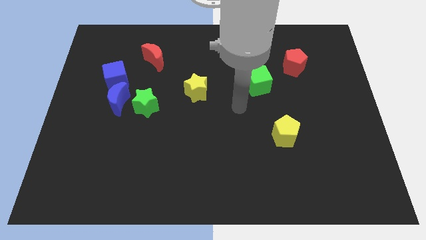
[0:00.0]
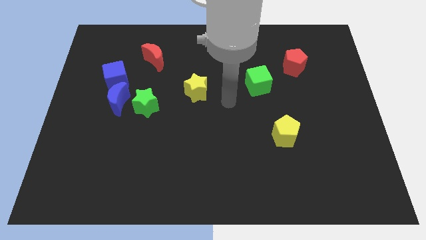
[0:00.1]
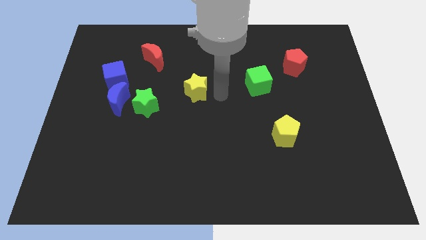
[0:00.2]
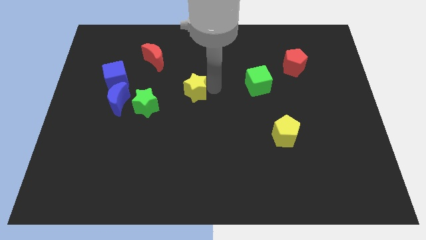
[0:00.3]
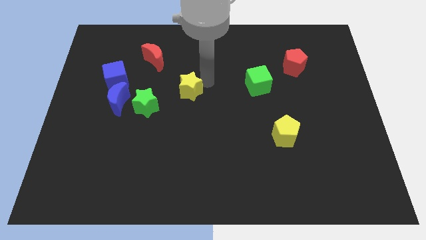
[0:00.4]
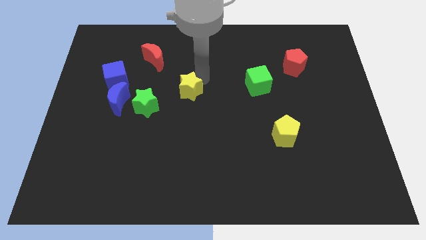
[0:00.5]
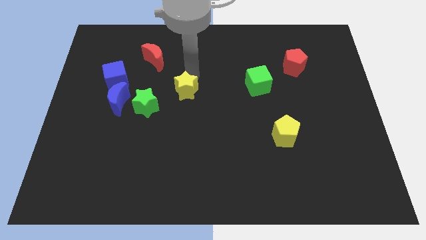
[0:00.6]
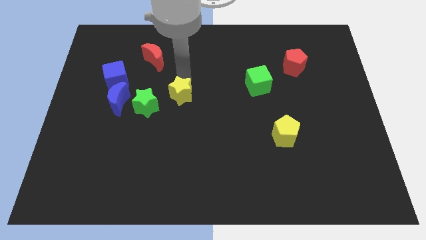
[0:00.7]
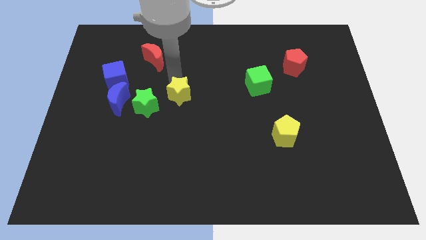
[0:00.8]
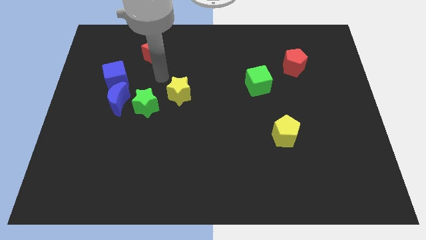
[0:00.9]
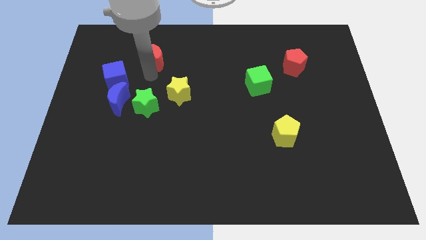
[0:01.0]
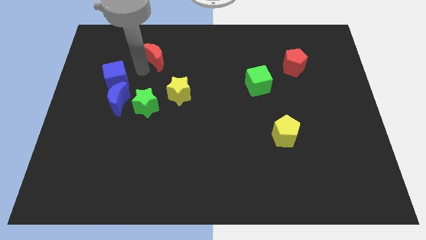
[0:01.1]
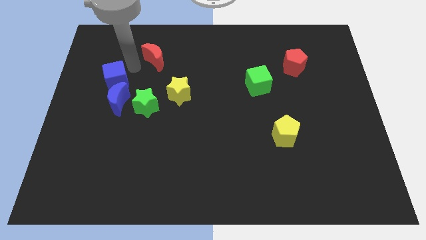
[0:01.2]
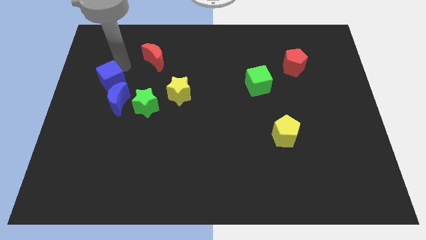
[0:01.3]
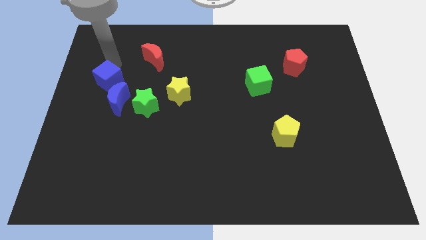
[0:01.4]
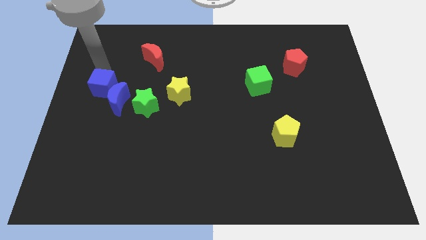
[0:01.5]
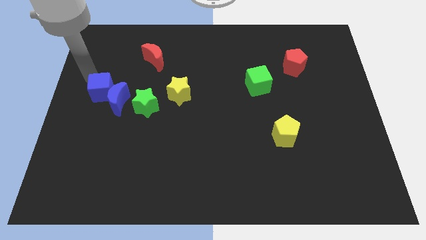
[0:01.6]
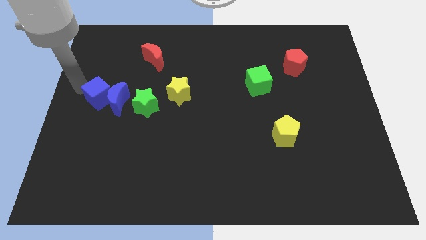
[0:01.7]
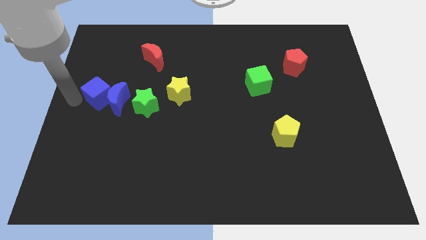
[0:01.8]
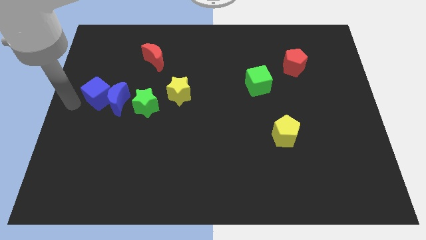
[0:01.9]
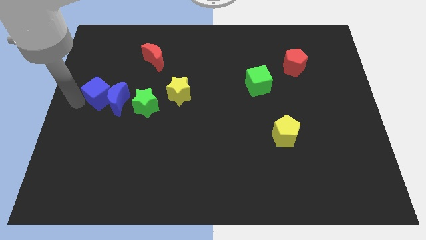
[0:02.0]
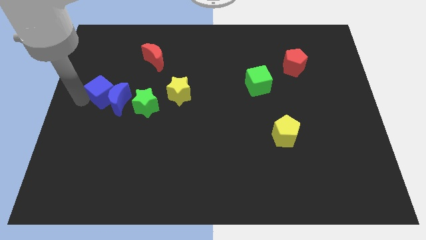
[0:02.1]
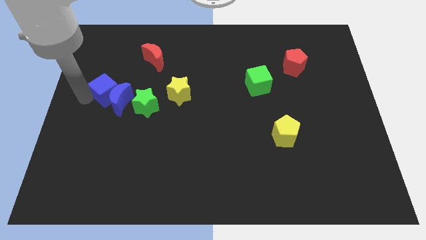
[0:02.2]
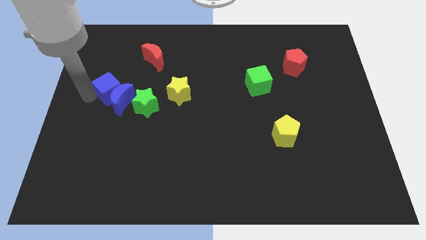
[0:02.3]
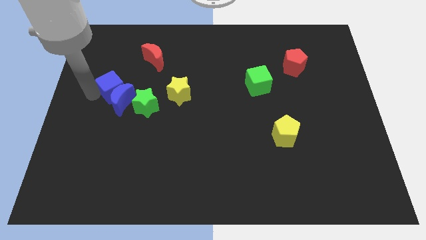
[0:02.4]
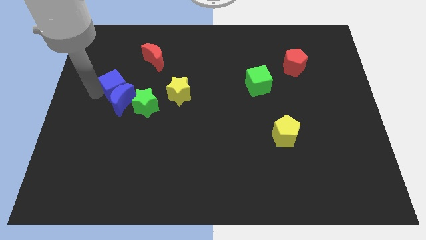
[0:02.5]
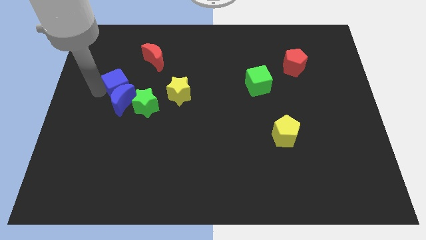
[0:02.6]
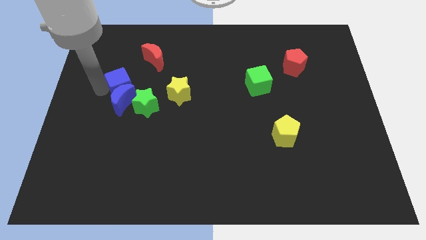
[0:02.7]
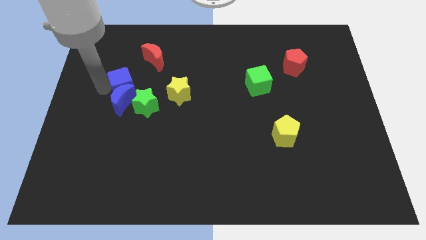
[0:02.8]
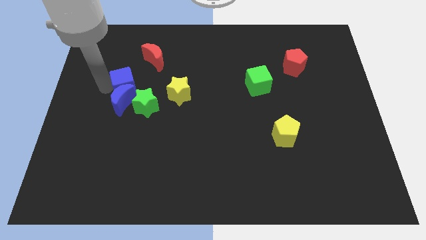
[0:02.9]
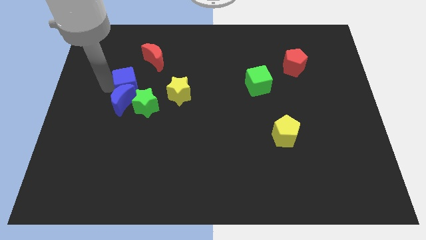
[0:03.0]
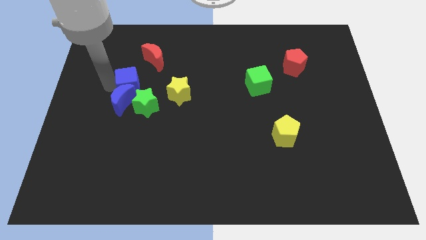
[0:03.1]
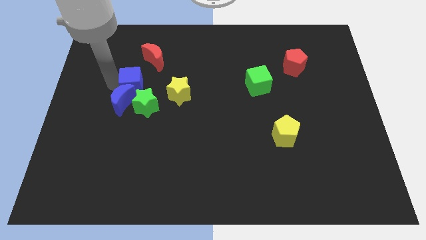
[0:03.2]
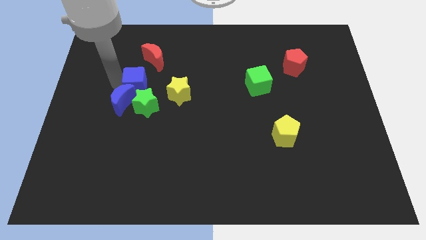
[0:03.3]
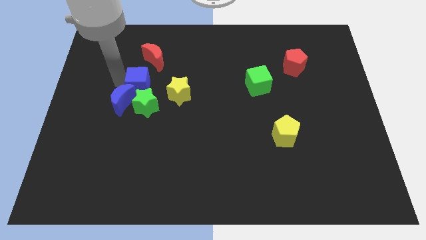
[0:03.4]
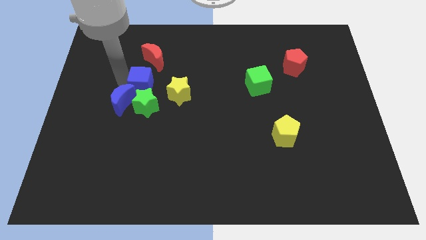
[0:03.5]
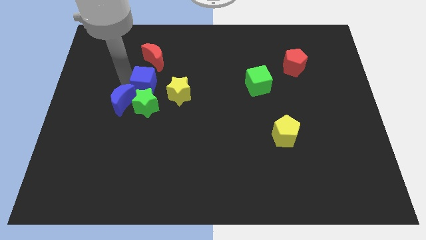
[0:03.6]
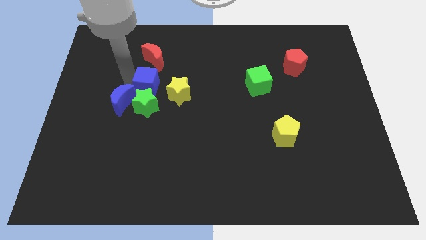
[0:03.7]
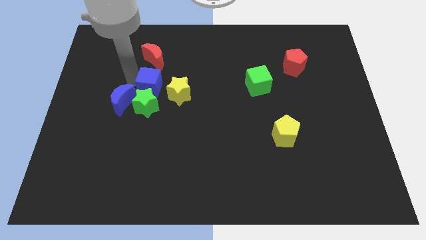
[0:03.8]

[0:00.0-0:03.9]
slide the blue cube a bit downwards and to the right diagonally

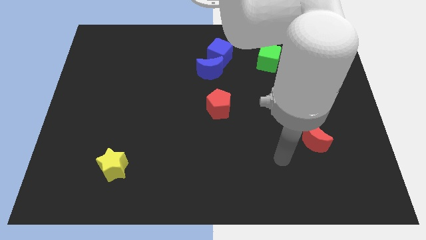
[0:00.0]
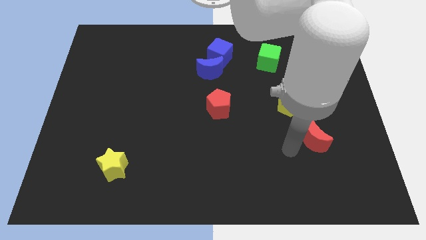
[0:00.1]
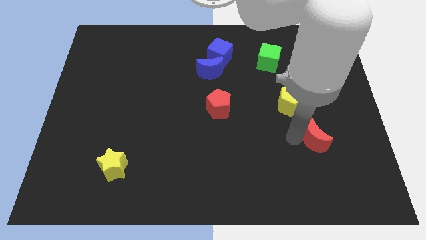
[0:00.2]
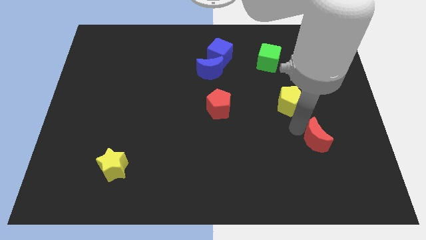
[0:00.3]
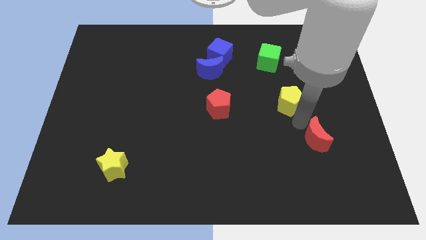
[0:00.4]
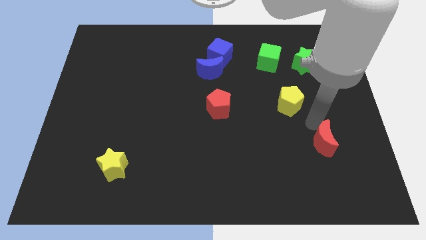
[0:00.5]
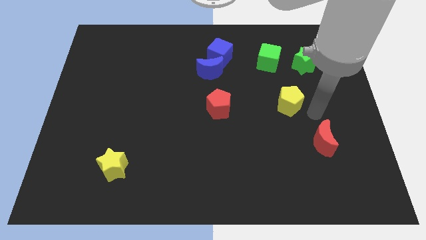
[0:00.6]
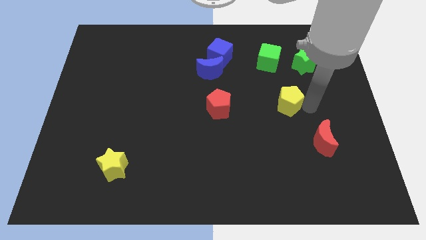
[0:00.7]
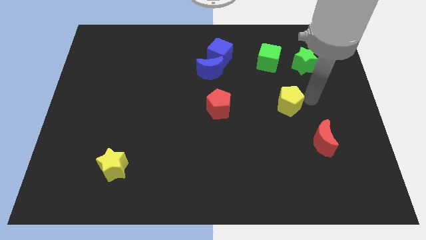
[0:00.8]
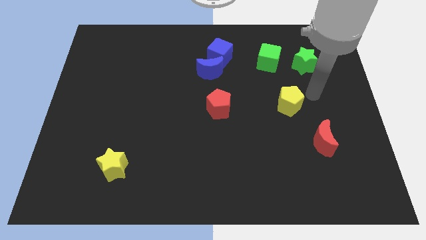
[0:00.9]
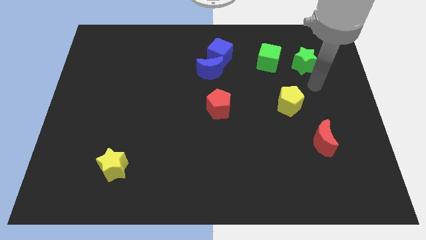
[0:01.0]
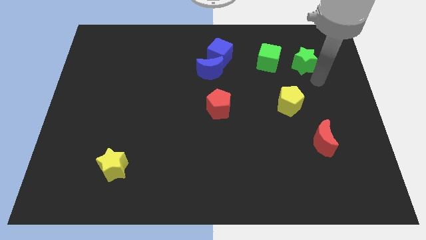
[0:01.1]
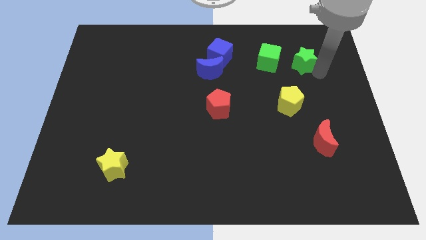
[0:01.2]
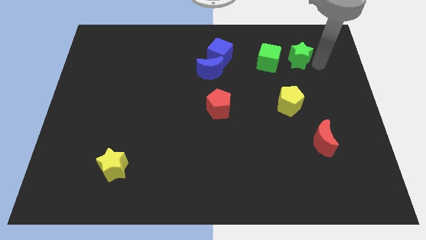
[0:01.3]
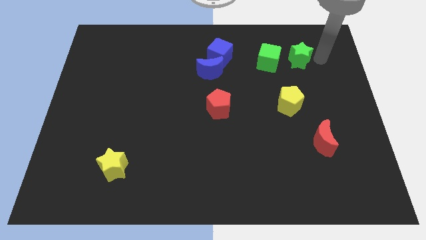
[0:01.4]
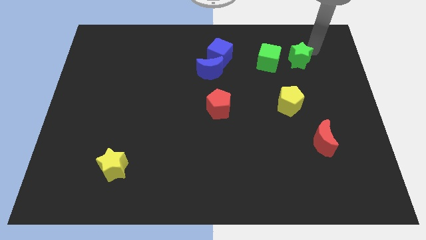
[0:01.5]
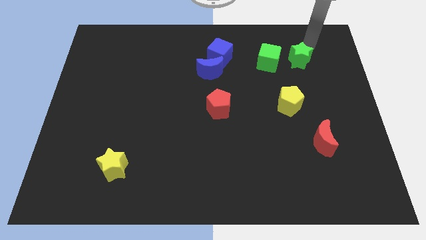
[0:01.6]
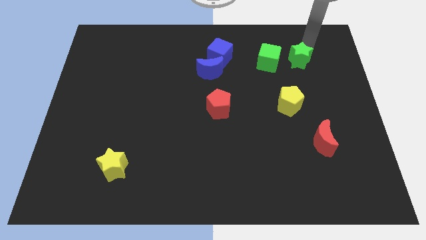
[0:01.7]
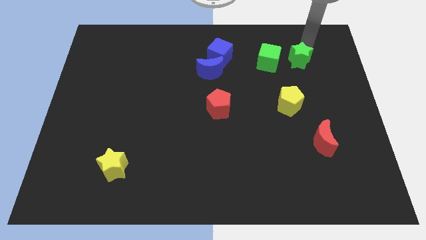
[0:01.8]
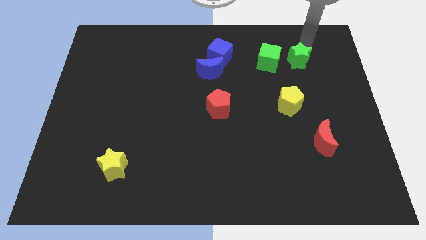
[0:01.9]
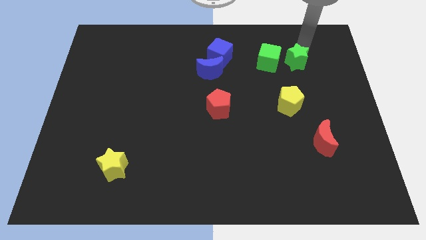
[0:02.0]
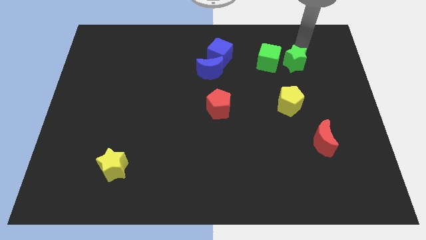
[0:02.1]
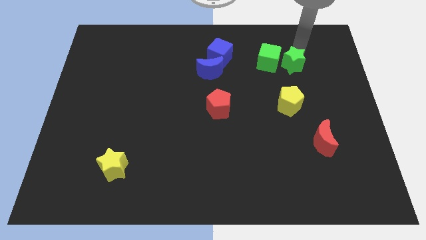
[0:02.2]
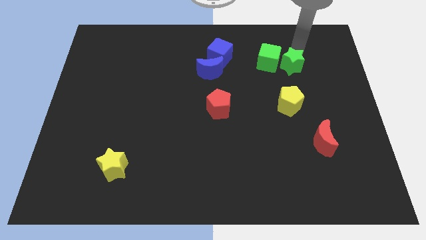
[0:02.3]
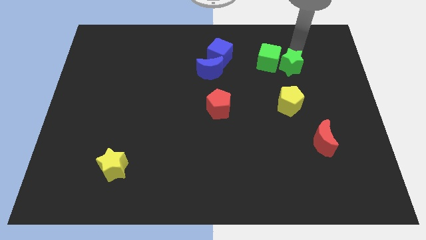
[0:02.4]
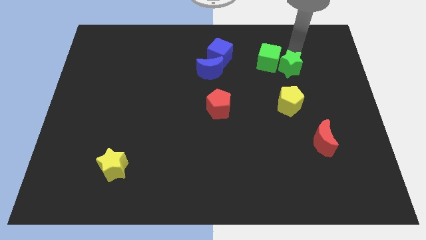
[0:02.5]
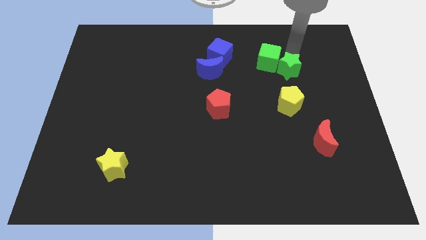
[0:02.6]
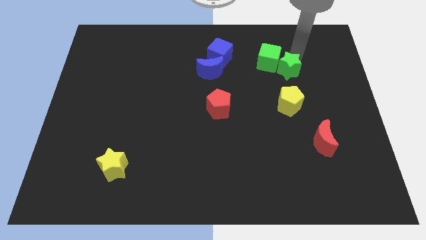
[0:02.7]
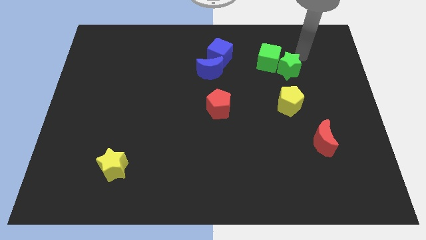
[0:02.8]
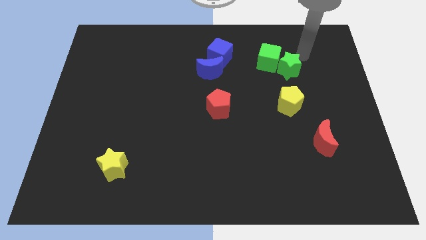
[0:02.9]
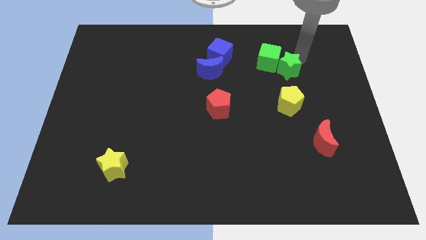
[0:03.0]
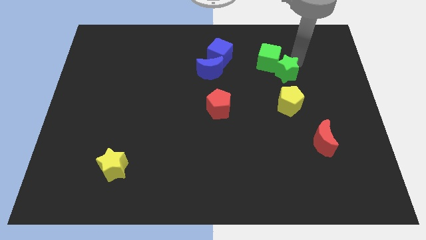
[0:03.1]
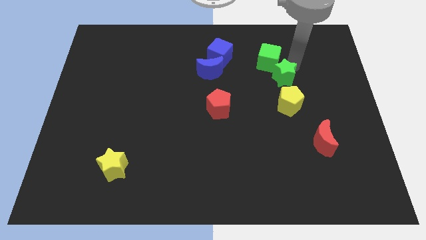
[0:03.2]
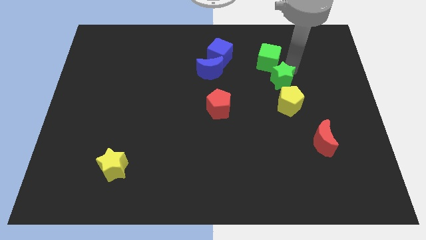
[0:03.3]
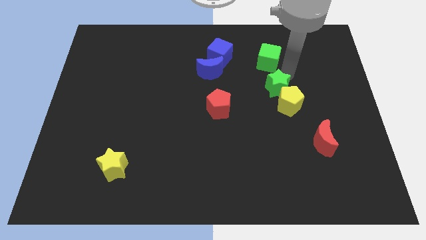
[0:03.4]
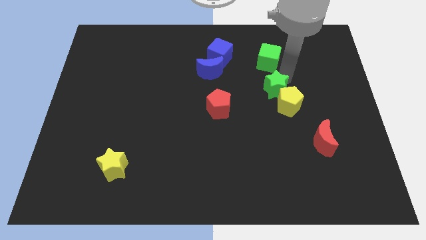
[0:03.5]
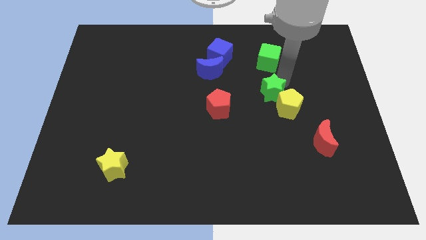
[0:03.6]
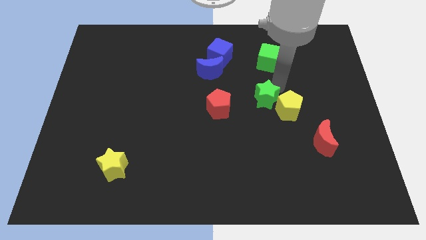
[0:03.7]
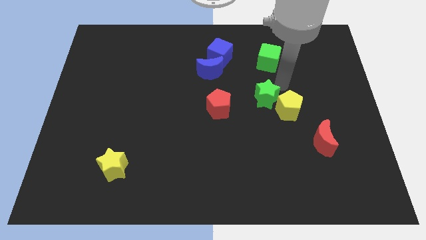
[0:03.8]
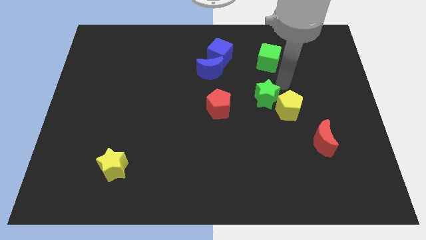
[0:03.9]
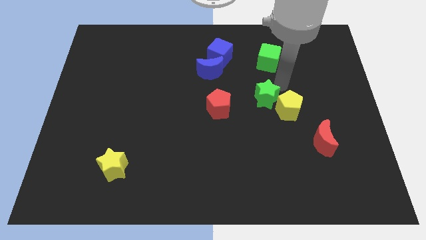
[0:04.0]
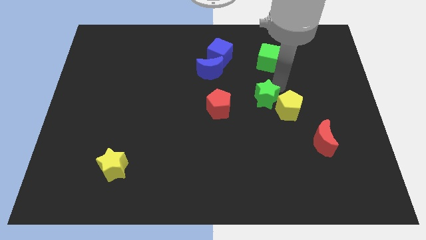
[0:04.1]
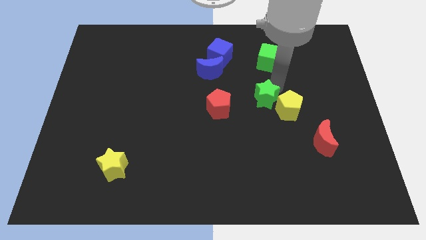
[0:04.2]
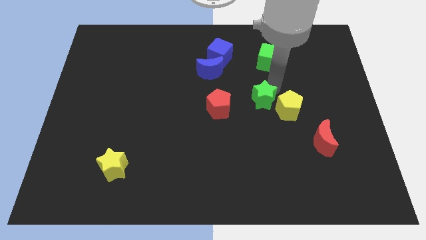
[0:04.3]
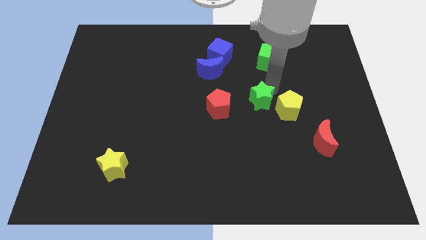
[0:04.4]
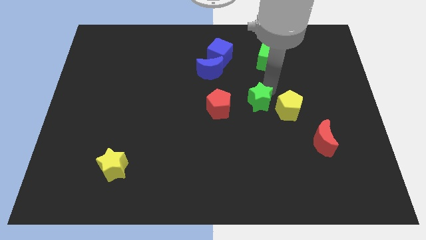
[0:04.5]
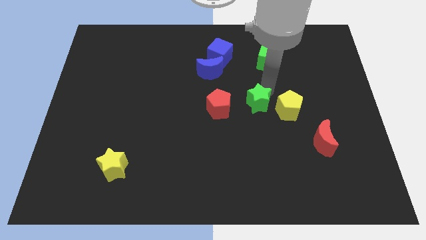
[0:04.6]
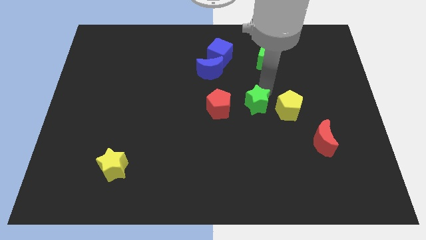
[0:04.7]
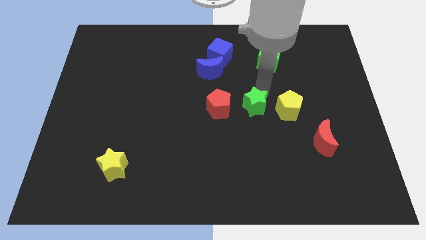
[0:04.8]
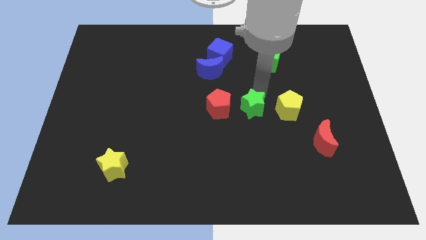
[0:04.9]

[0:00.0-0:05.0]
slide the green star down and then to the left
